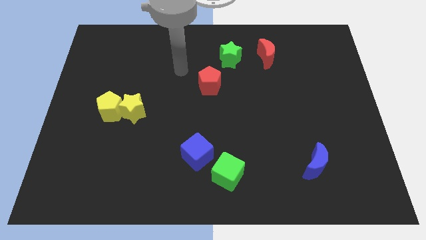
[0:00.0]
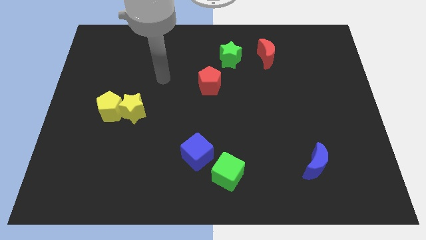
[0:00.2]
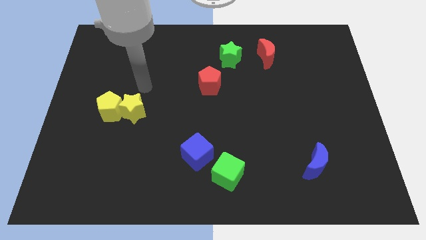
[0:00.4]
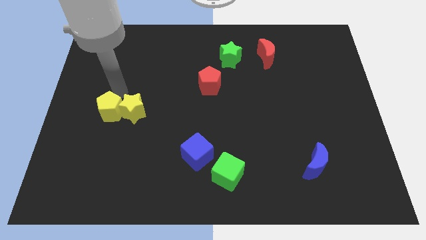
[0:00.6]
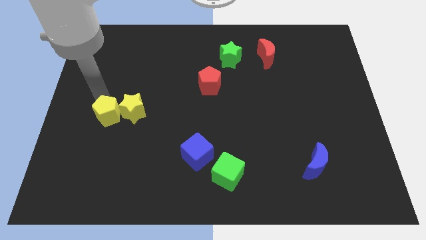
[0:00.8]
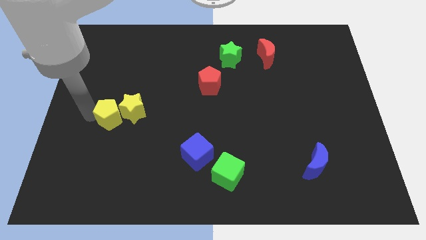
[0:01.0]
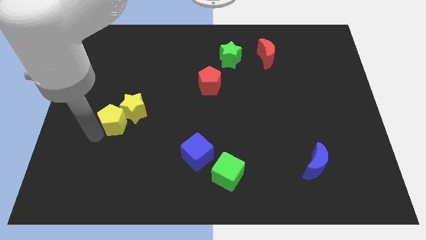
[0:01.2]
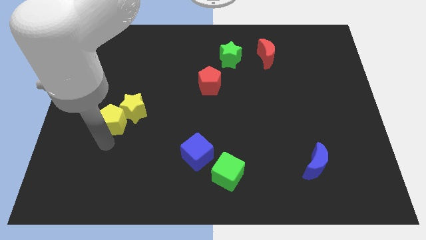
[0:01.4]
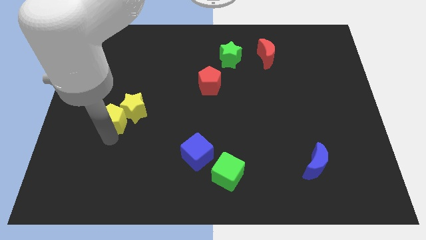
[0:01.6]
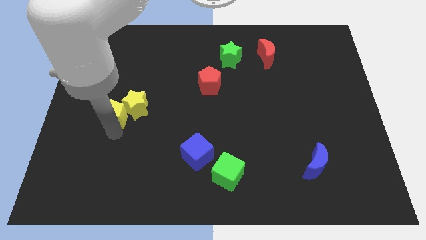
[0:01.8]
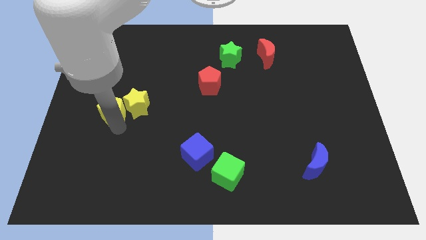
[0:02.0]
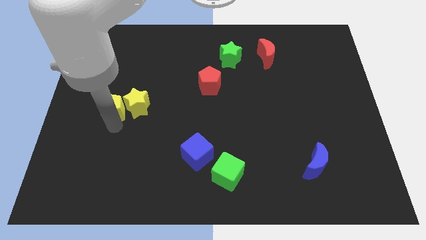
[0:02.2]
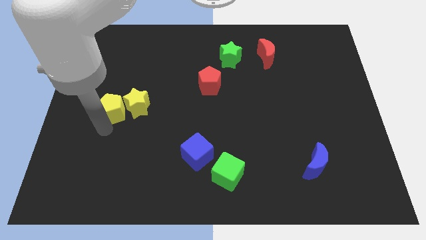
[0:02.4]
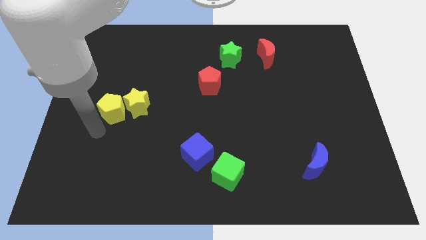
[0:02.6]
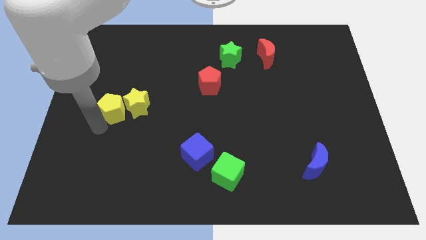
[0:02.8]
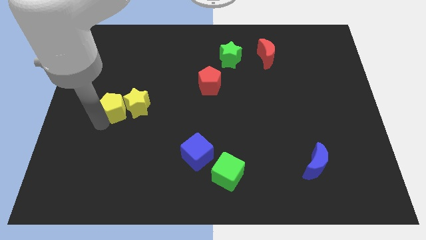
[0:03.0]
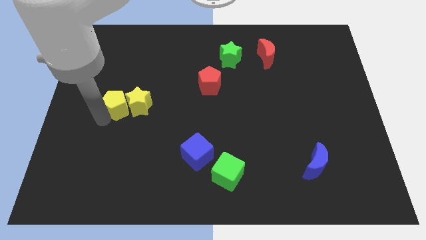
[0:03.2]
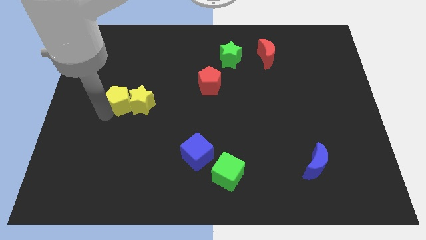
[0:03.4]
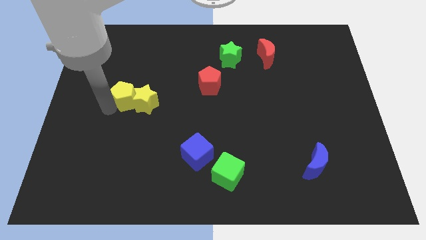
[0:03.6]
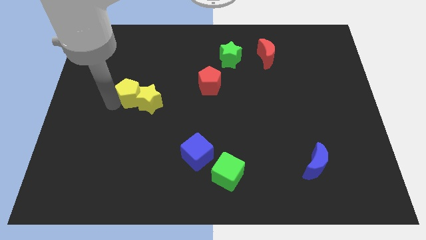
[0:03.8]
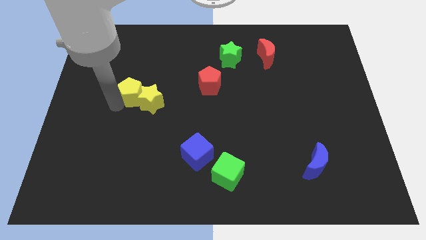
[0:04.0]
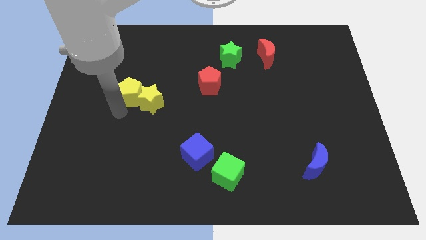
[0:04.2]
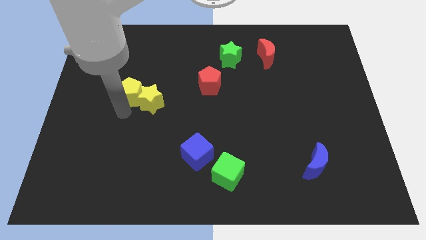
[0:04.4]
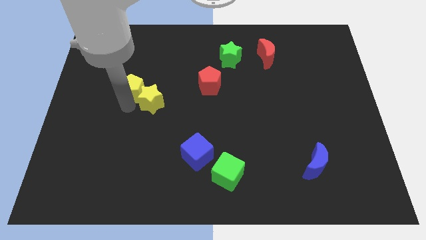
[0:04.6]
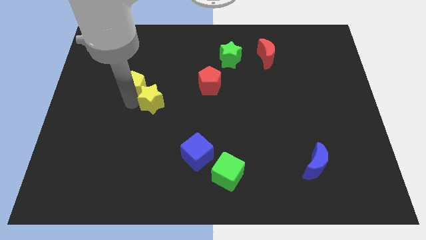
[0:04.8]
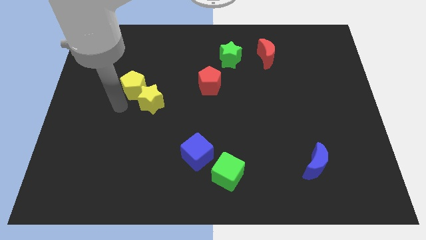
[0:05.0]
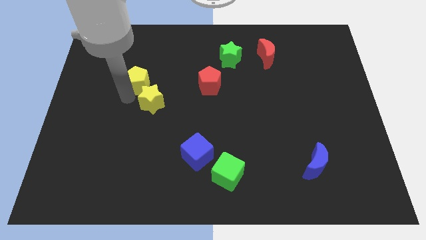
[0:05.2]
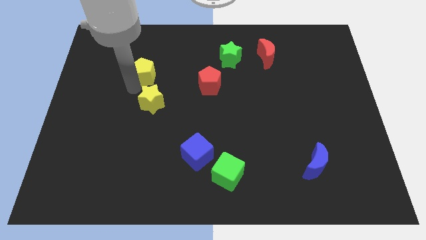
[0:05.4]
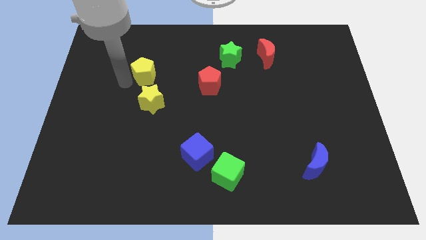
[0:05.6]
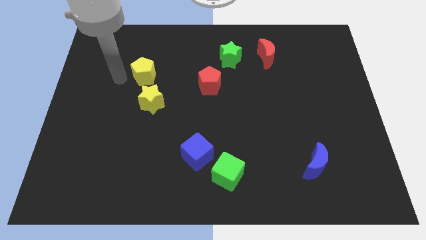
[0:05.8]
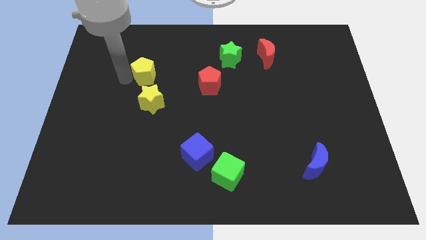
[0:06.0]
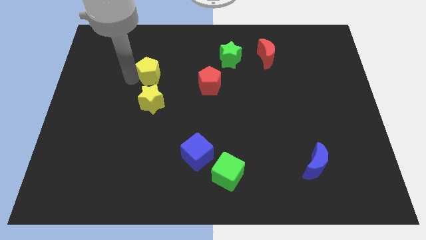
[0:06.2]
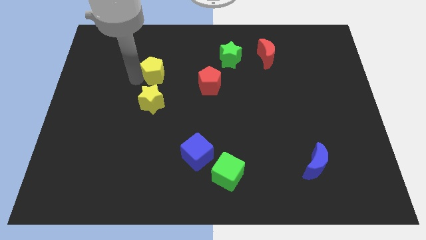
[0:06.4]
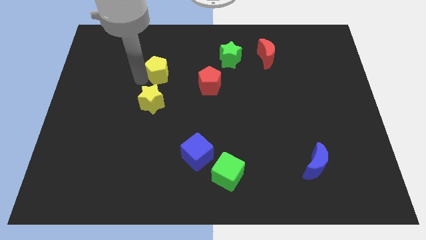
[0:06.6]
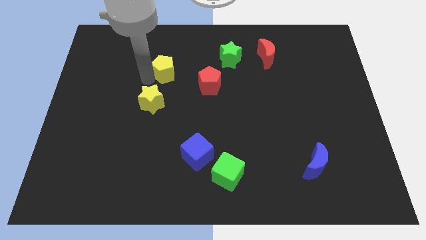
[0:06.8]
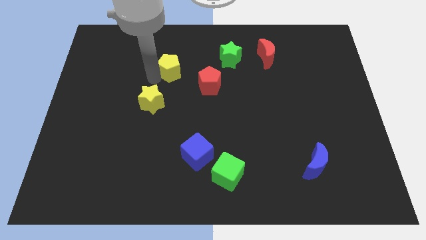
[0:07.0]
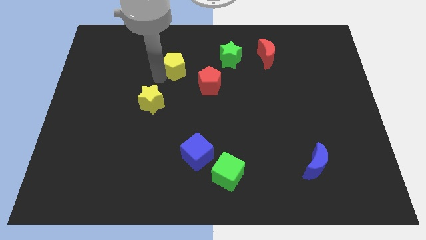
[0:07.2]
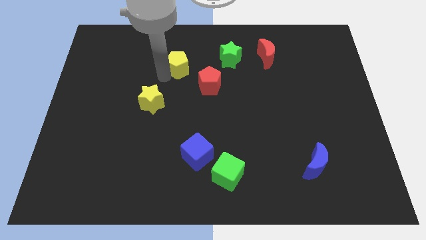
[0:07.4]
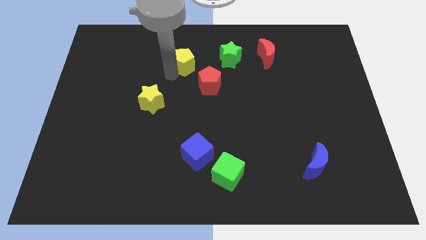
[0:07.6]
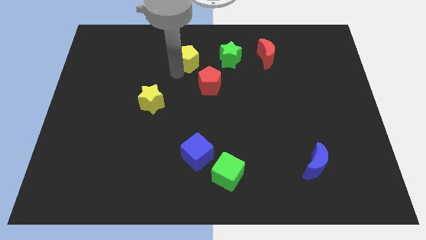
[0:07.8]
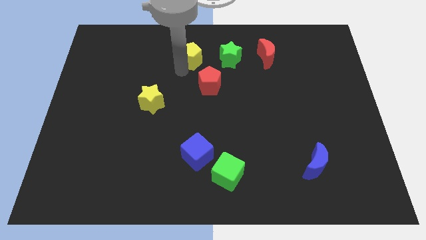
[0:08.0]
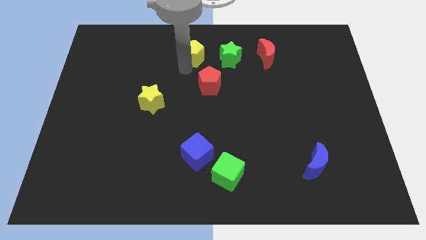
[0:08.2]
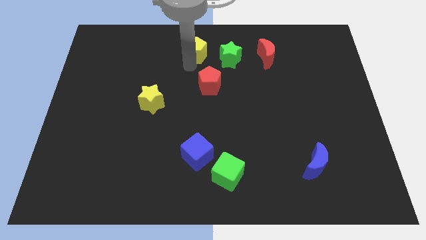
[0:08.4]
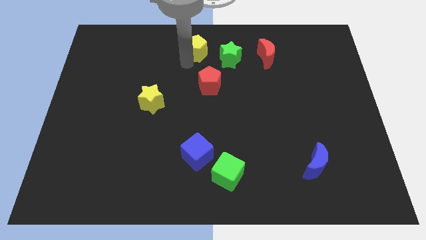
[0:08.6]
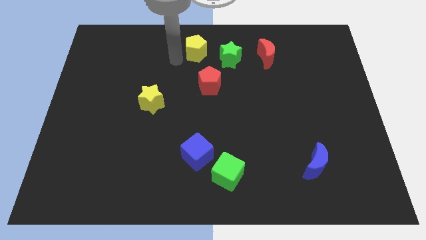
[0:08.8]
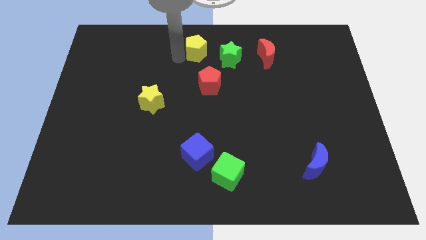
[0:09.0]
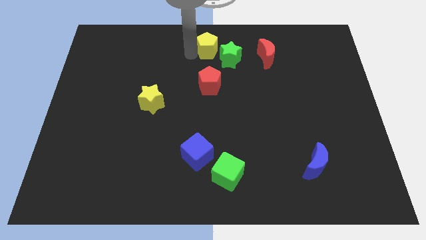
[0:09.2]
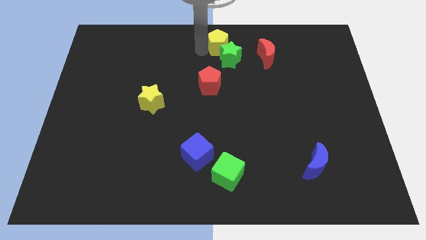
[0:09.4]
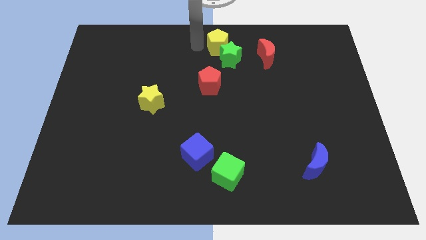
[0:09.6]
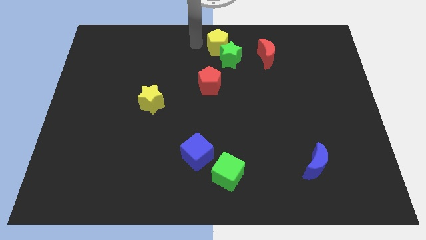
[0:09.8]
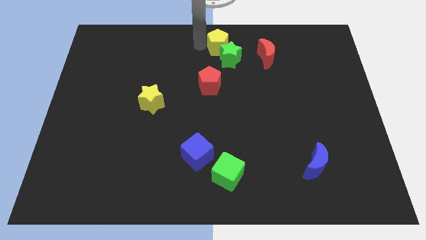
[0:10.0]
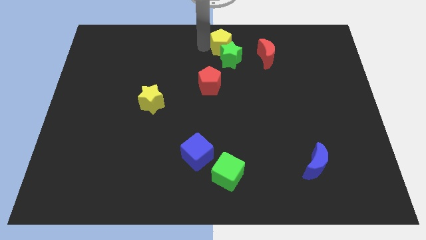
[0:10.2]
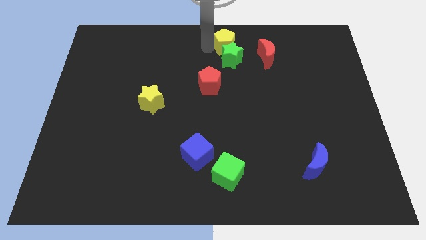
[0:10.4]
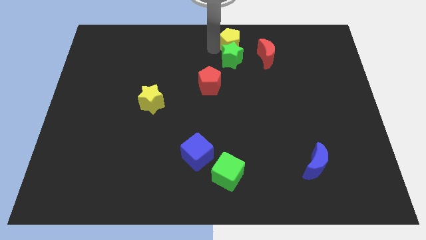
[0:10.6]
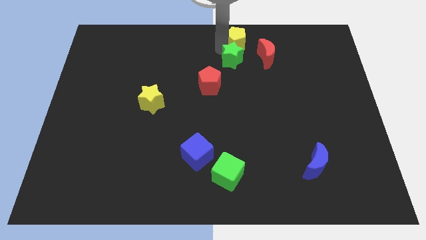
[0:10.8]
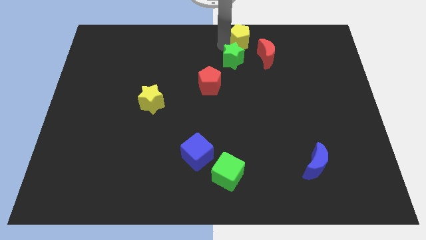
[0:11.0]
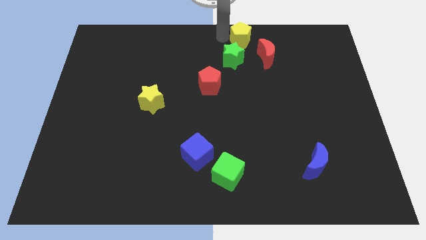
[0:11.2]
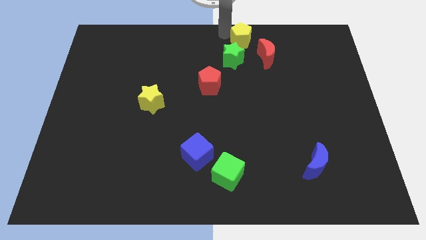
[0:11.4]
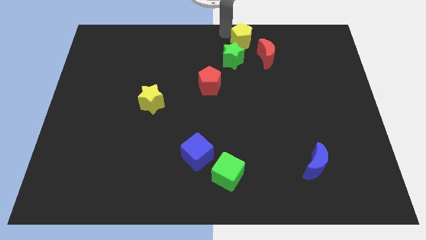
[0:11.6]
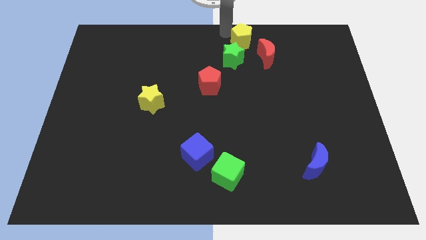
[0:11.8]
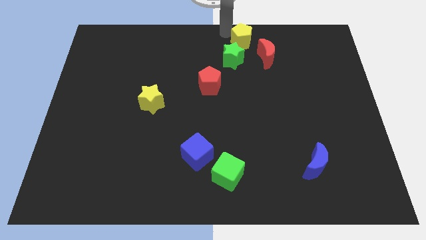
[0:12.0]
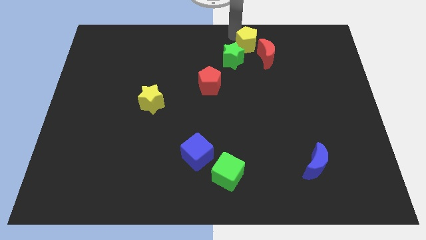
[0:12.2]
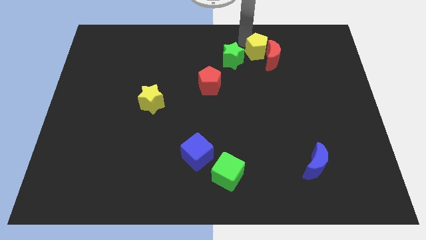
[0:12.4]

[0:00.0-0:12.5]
put the yellow pentagon close to the red moon

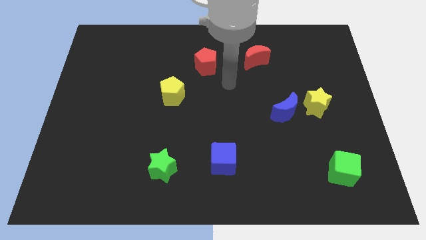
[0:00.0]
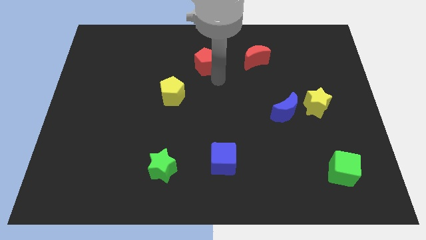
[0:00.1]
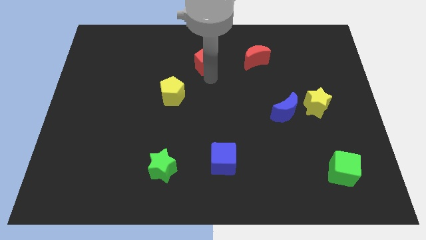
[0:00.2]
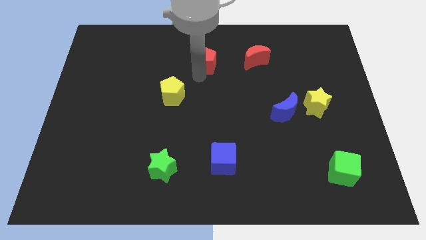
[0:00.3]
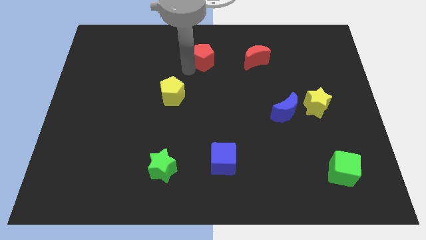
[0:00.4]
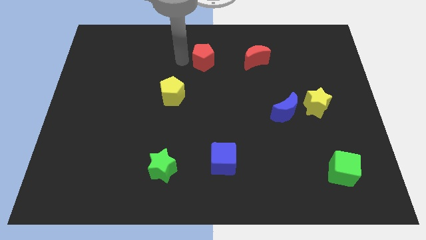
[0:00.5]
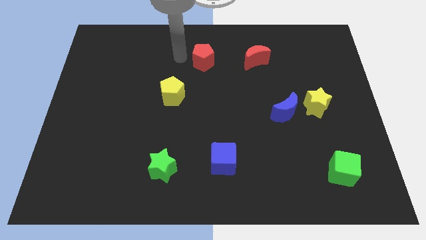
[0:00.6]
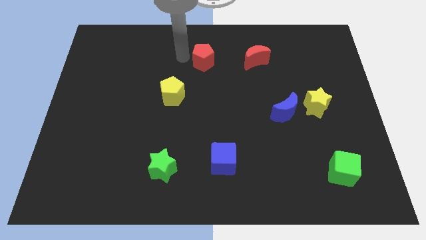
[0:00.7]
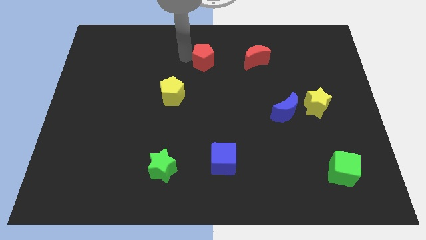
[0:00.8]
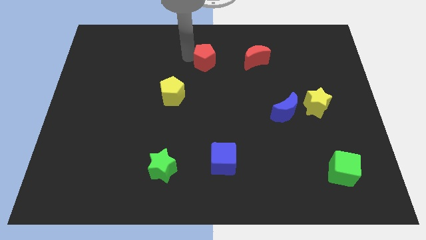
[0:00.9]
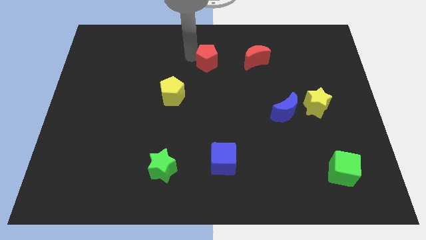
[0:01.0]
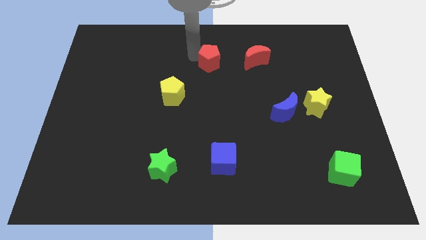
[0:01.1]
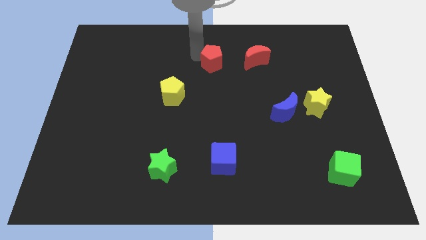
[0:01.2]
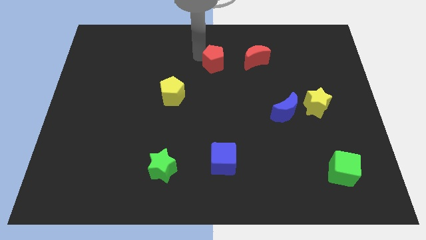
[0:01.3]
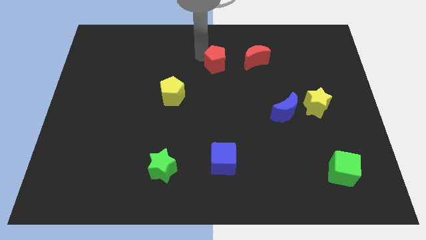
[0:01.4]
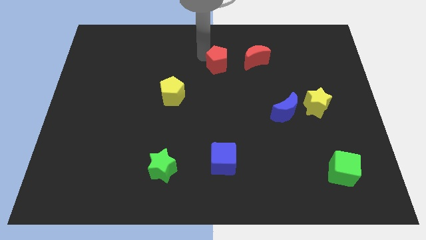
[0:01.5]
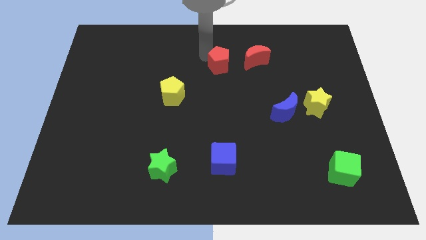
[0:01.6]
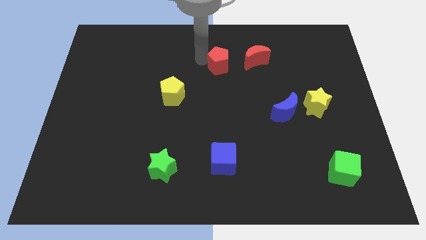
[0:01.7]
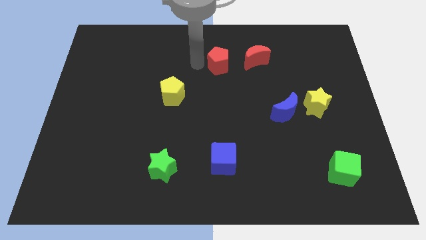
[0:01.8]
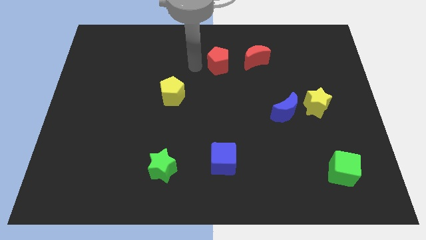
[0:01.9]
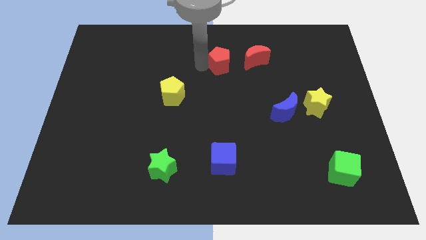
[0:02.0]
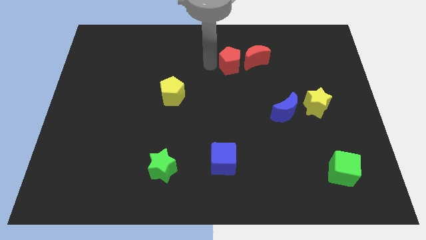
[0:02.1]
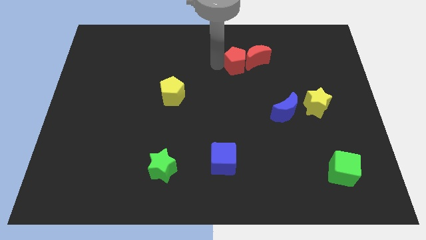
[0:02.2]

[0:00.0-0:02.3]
put the red pentagon next to the red moon
